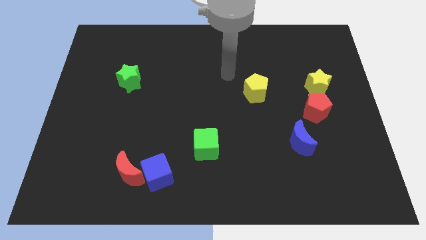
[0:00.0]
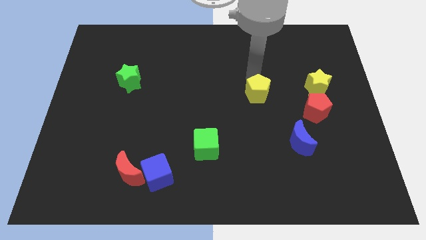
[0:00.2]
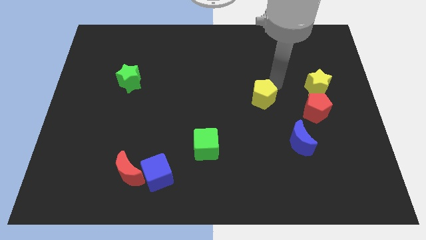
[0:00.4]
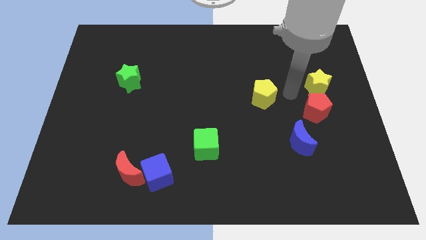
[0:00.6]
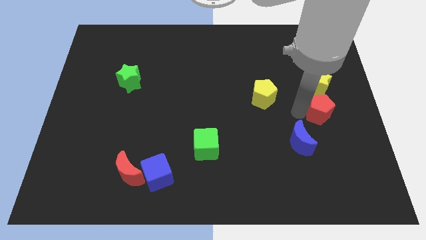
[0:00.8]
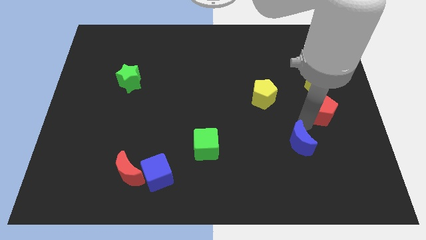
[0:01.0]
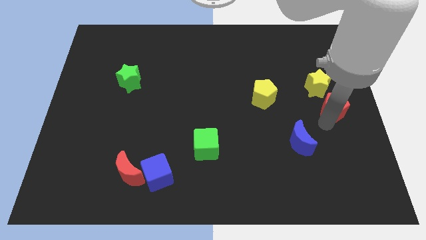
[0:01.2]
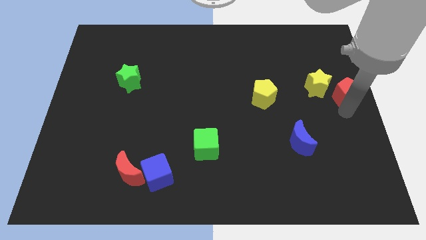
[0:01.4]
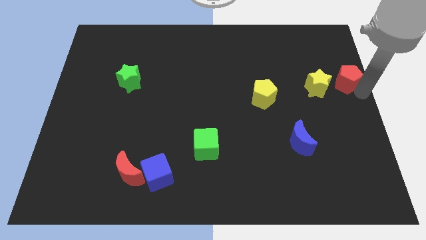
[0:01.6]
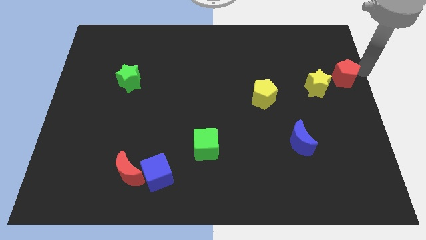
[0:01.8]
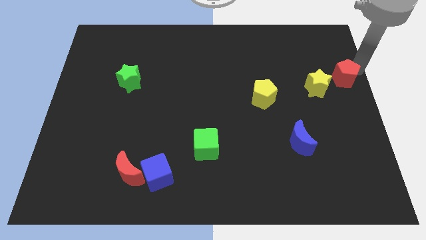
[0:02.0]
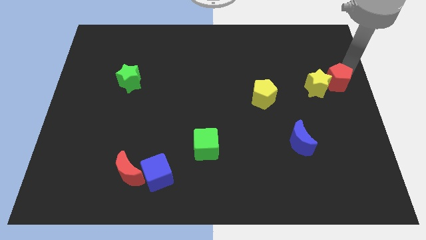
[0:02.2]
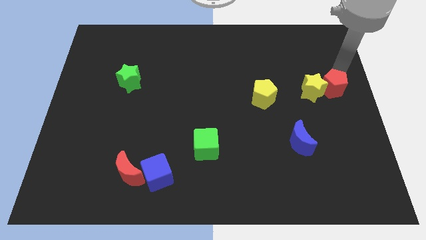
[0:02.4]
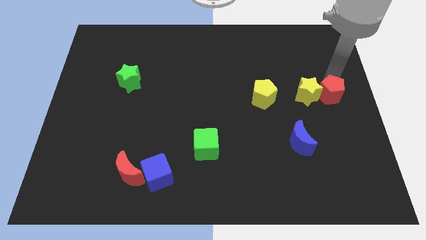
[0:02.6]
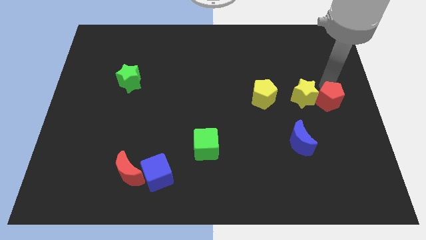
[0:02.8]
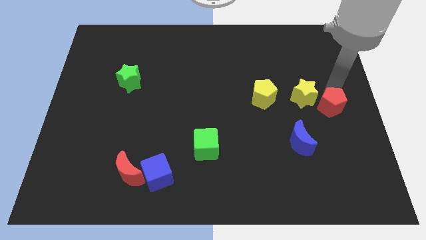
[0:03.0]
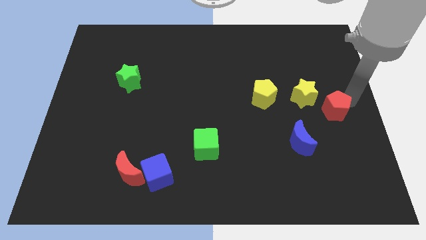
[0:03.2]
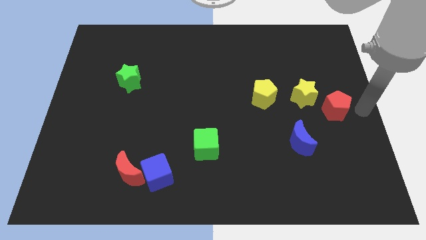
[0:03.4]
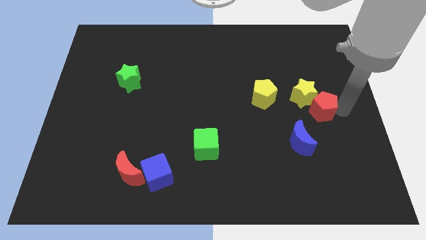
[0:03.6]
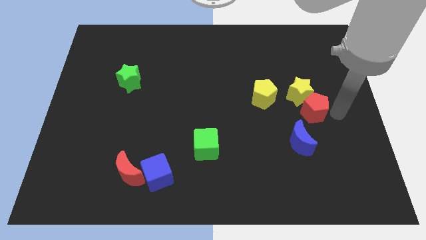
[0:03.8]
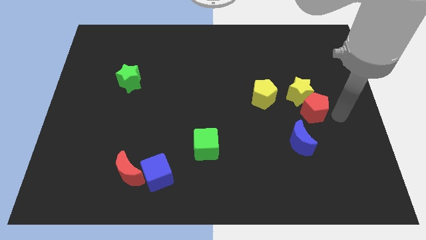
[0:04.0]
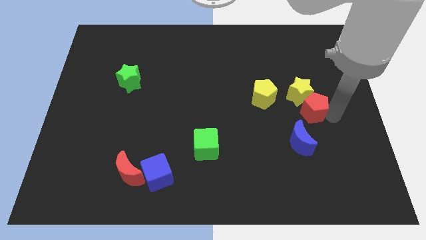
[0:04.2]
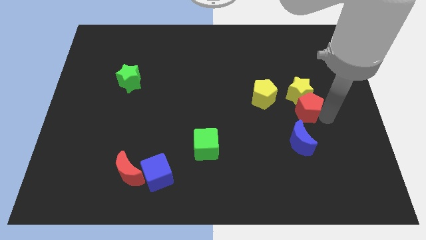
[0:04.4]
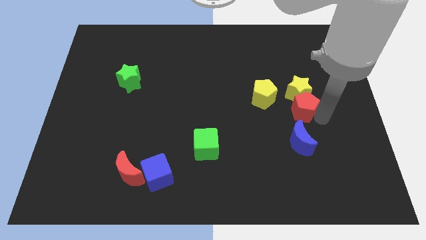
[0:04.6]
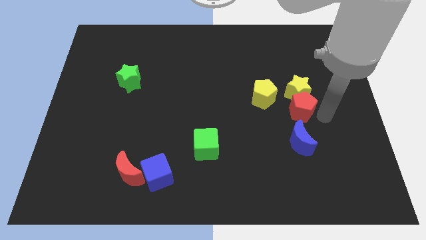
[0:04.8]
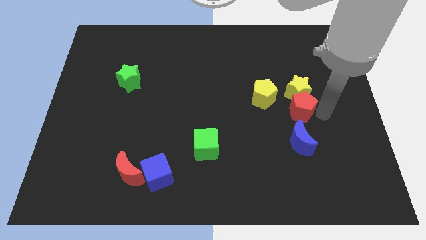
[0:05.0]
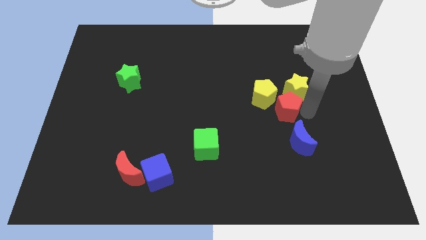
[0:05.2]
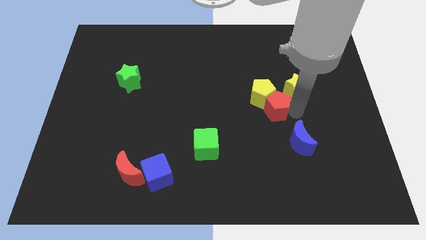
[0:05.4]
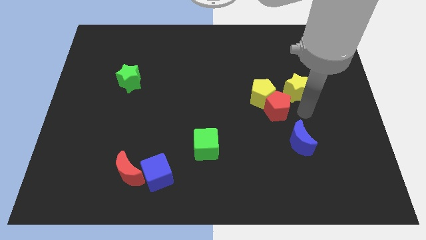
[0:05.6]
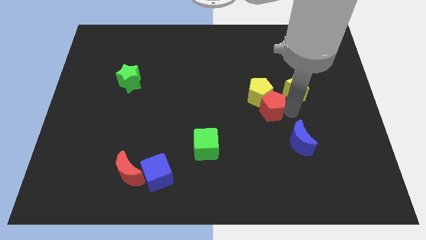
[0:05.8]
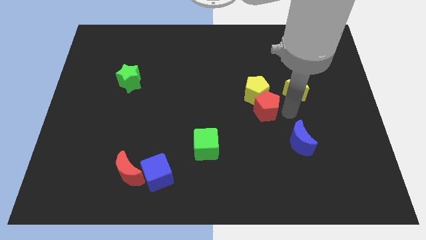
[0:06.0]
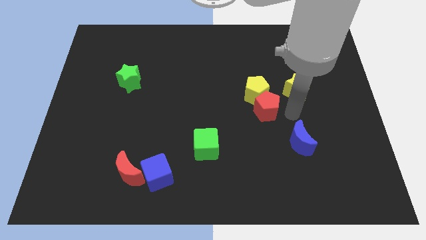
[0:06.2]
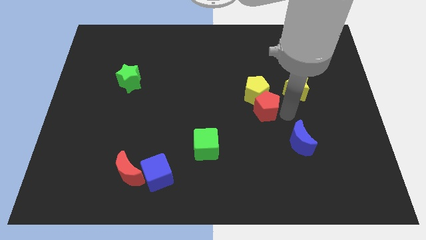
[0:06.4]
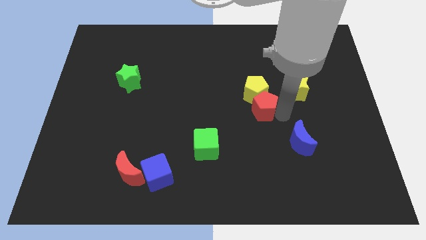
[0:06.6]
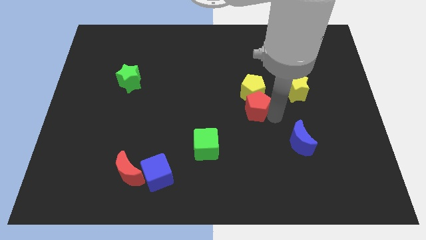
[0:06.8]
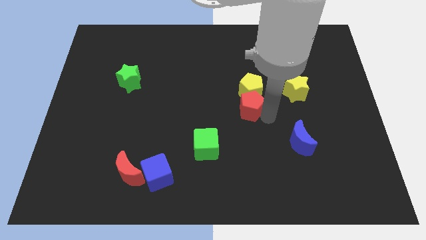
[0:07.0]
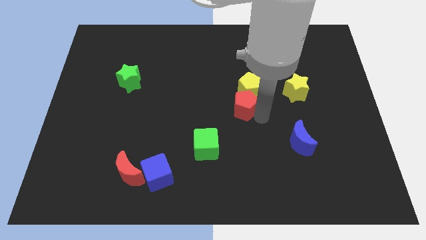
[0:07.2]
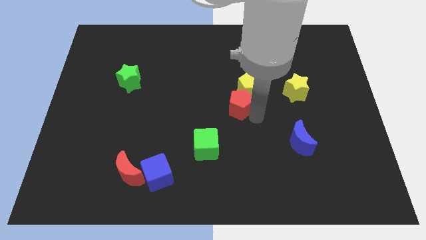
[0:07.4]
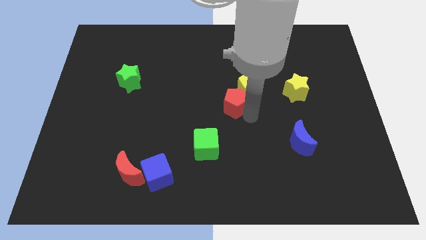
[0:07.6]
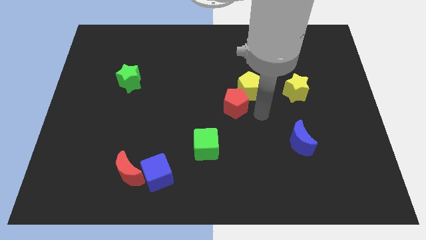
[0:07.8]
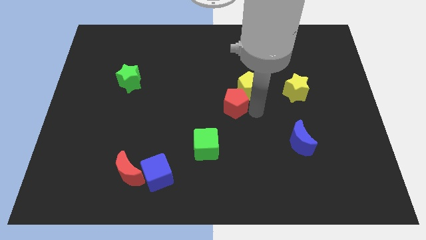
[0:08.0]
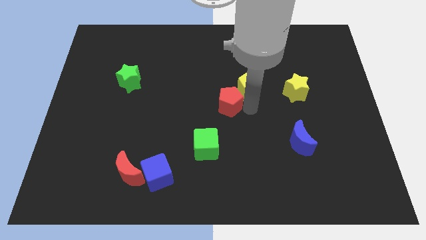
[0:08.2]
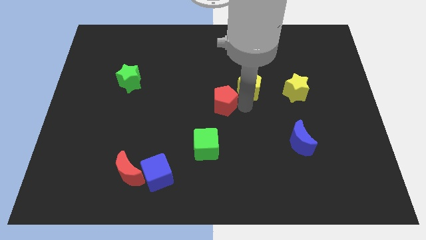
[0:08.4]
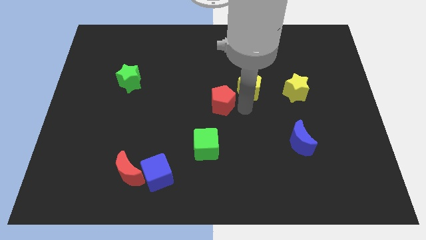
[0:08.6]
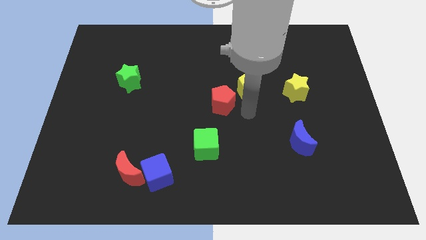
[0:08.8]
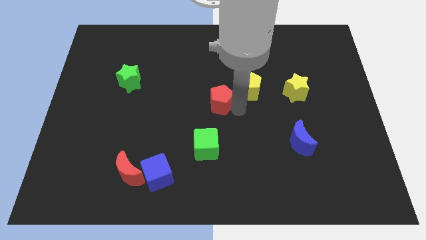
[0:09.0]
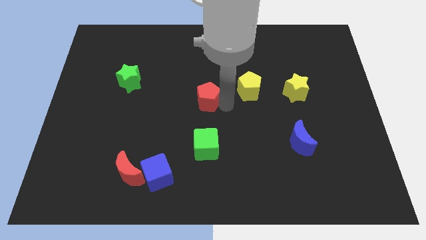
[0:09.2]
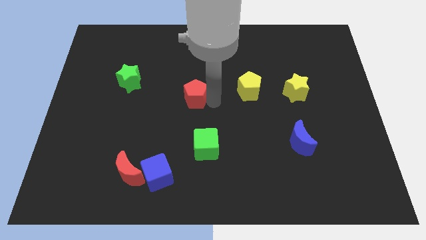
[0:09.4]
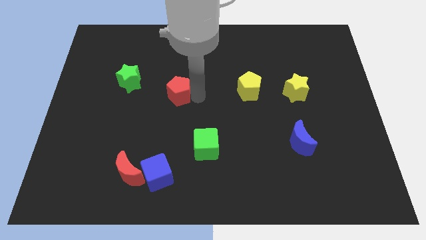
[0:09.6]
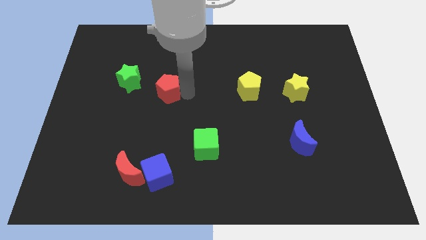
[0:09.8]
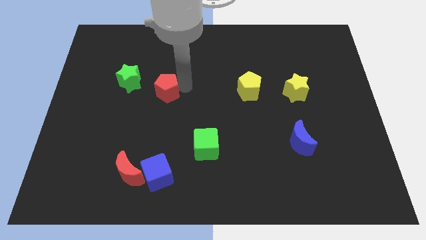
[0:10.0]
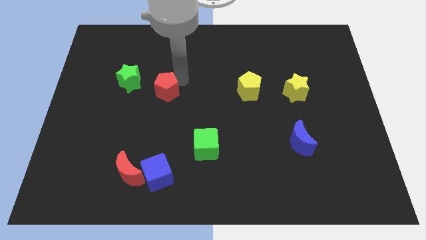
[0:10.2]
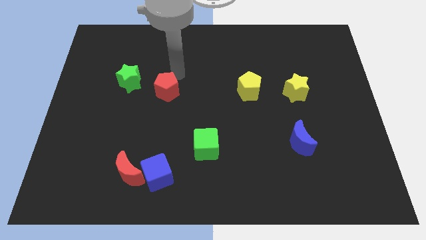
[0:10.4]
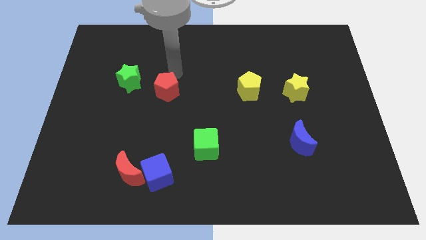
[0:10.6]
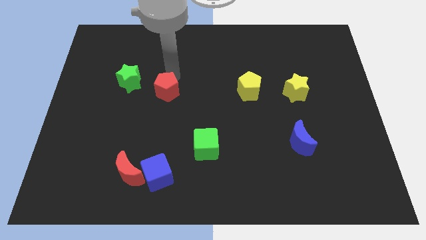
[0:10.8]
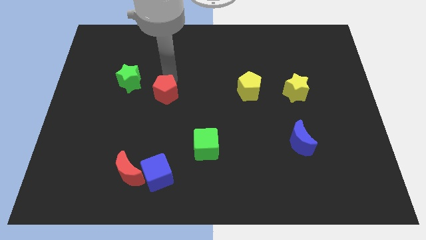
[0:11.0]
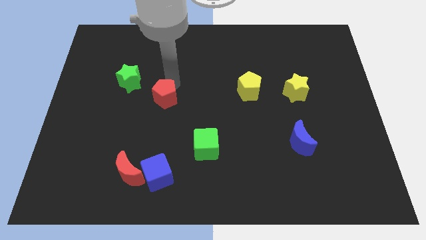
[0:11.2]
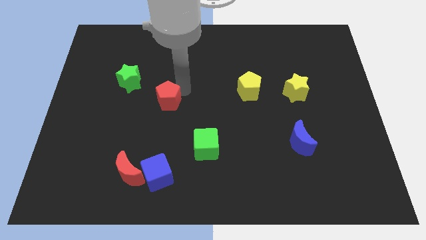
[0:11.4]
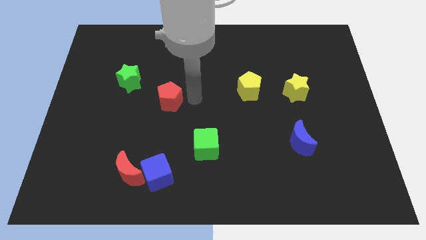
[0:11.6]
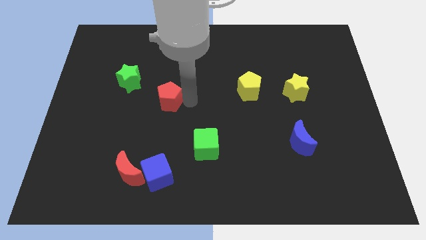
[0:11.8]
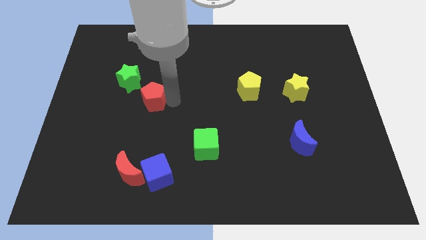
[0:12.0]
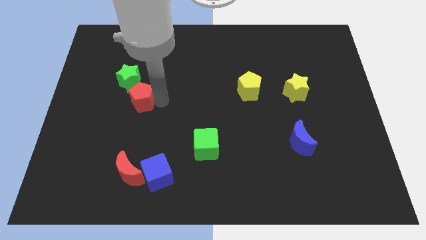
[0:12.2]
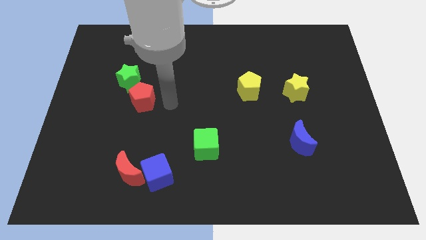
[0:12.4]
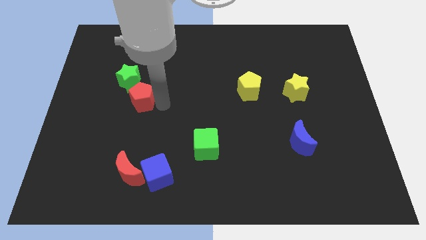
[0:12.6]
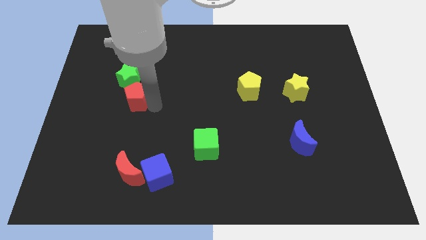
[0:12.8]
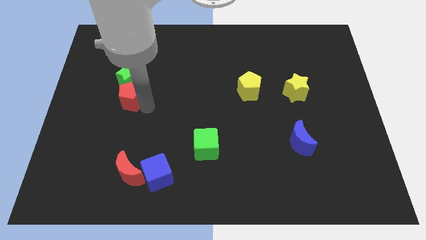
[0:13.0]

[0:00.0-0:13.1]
move the red pentagon diagonally down and to the left of the green star
